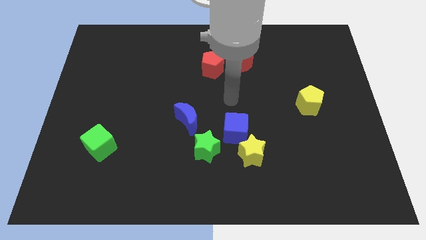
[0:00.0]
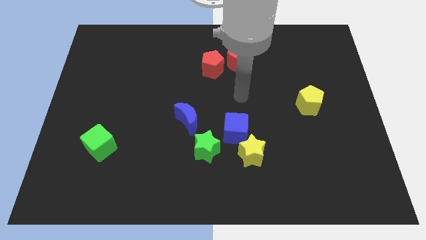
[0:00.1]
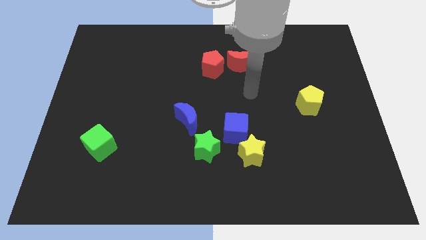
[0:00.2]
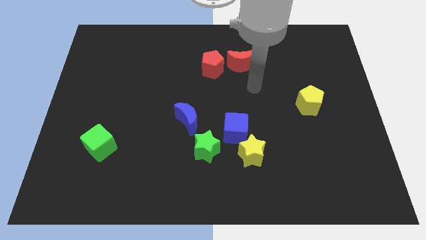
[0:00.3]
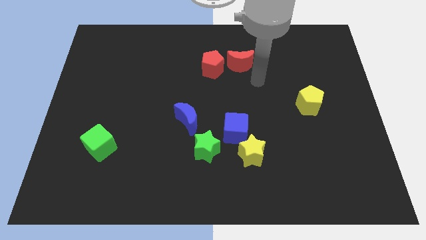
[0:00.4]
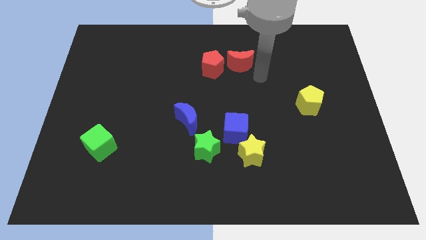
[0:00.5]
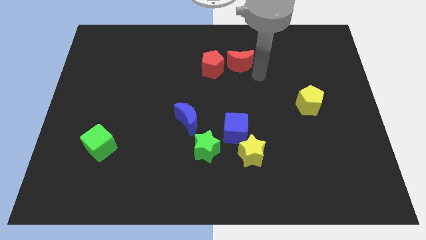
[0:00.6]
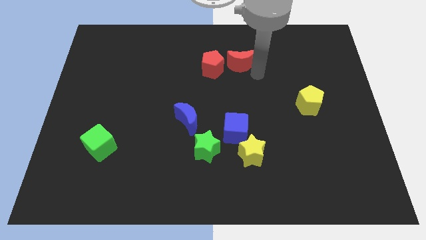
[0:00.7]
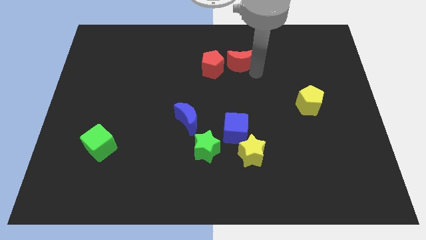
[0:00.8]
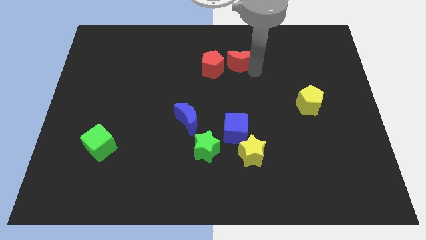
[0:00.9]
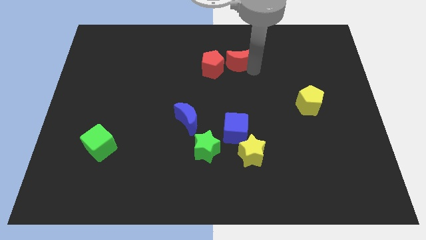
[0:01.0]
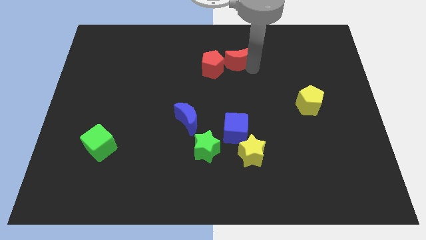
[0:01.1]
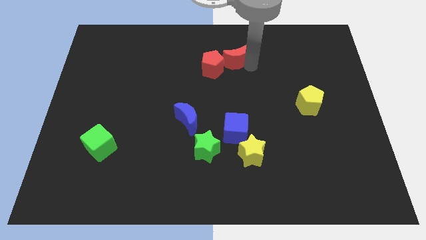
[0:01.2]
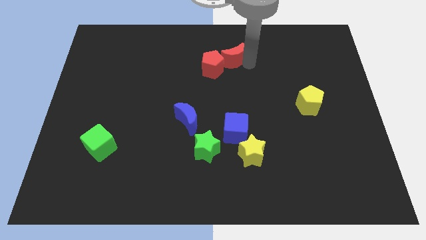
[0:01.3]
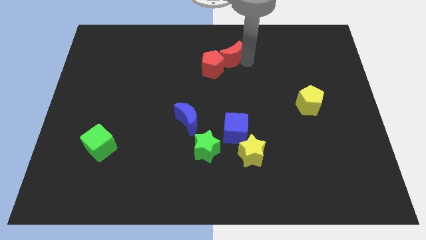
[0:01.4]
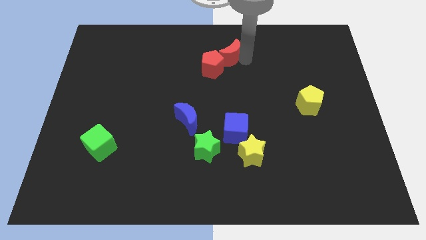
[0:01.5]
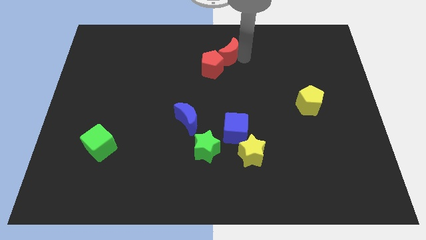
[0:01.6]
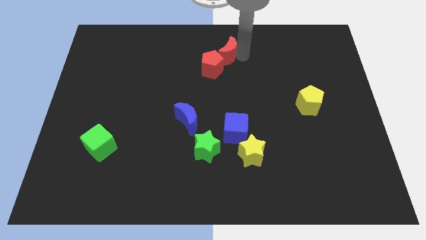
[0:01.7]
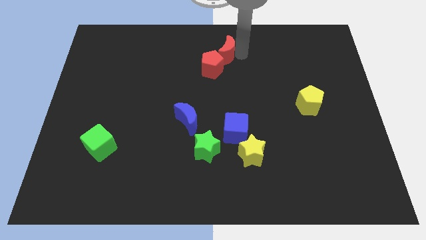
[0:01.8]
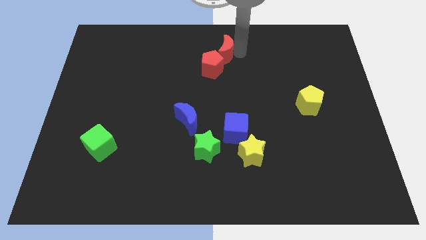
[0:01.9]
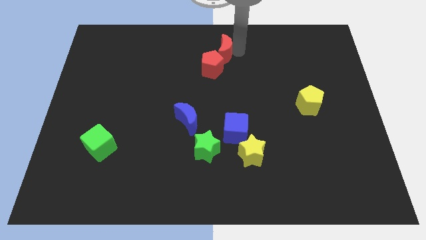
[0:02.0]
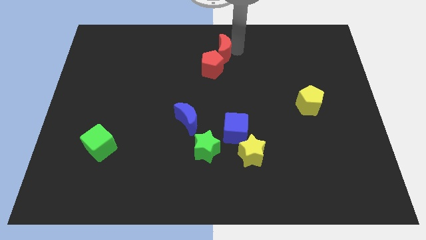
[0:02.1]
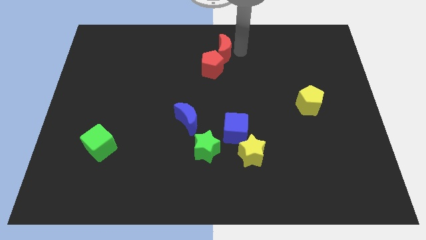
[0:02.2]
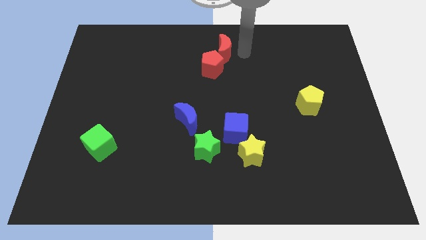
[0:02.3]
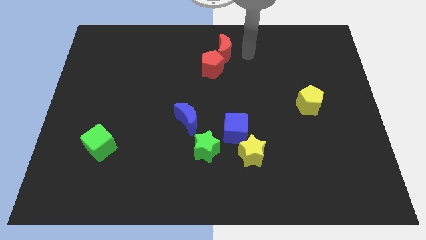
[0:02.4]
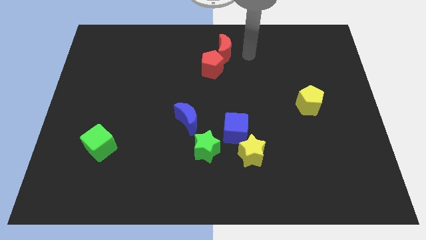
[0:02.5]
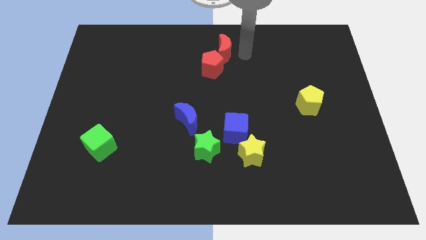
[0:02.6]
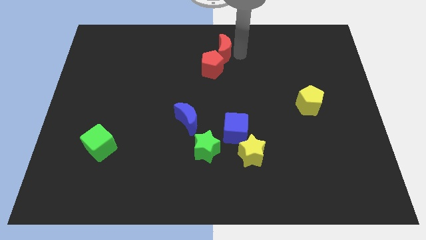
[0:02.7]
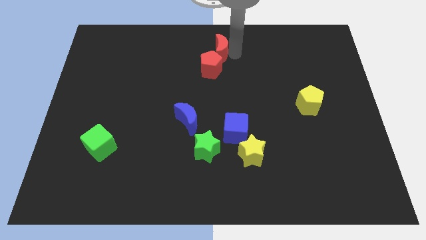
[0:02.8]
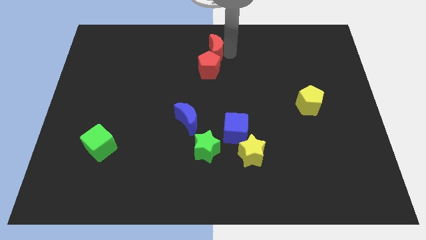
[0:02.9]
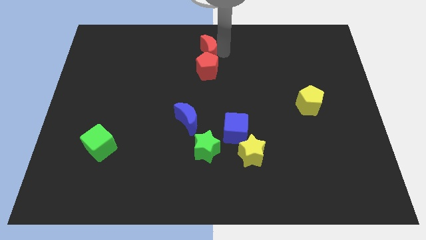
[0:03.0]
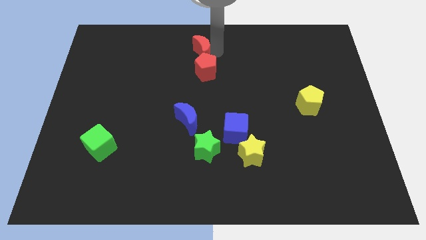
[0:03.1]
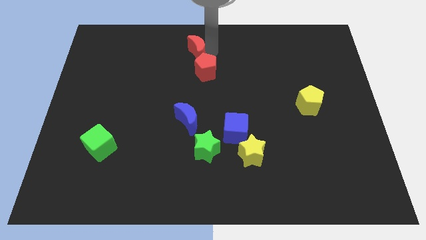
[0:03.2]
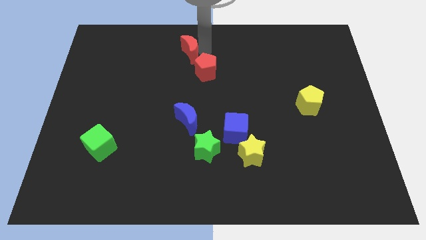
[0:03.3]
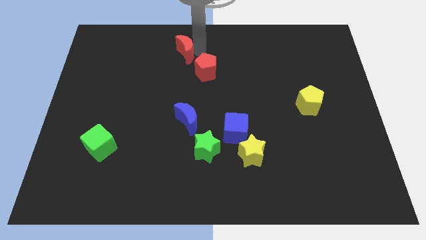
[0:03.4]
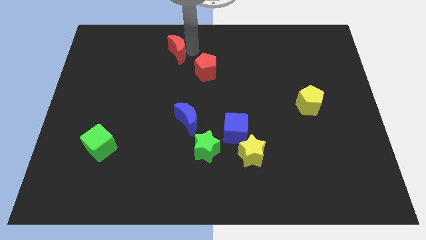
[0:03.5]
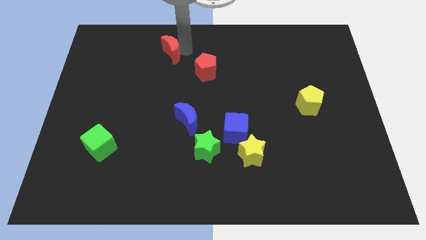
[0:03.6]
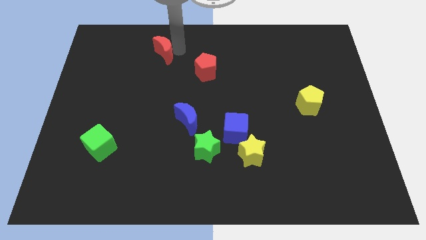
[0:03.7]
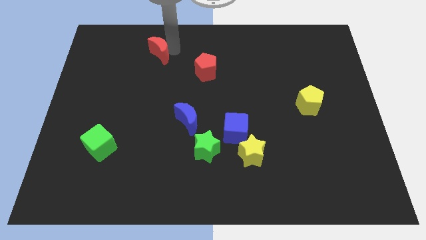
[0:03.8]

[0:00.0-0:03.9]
move the red moon to the left

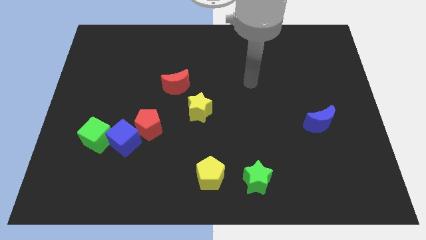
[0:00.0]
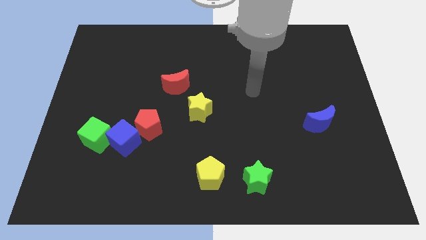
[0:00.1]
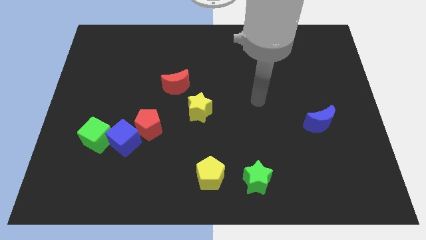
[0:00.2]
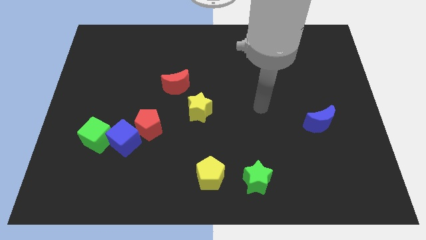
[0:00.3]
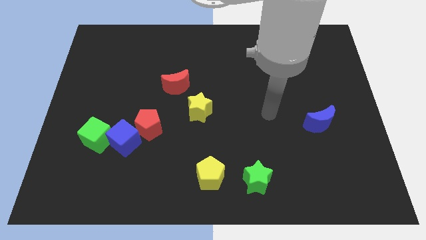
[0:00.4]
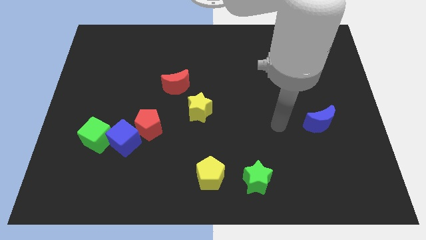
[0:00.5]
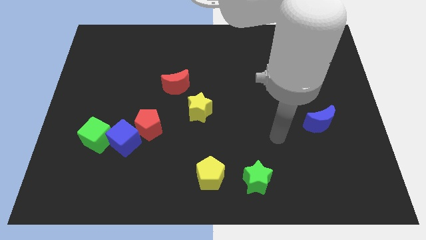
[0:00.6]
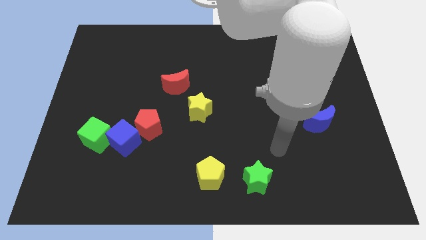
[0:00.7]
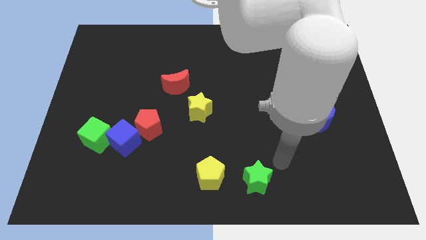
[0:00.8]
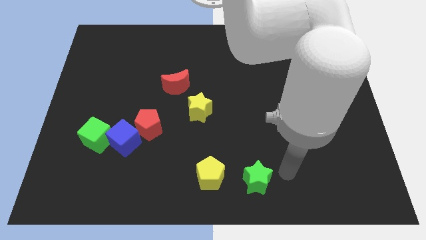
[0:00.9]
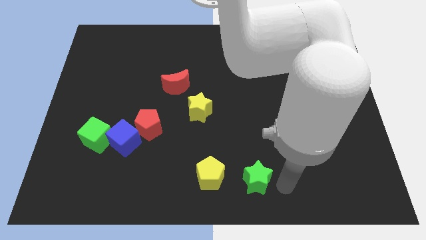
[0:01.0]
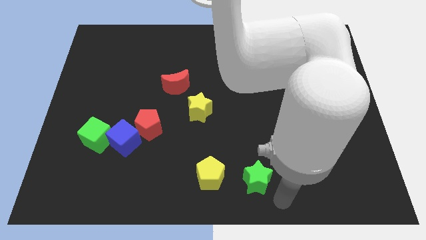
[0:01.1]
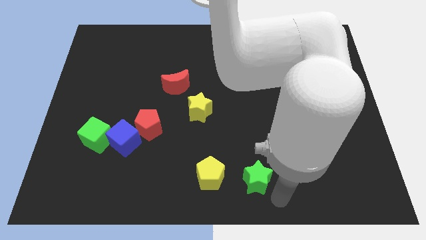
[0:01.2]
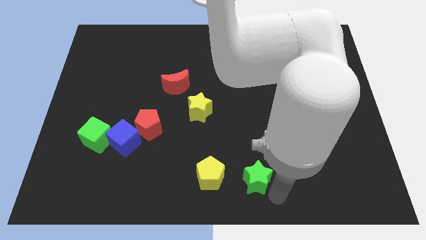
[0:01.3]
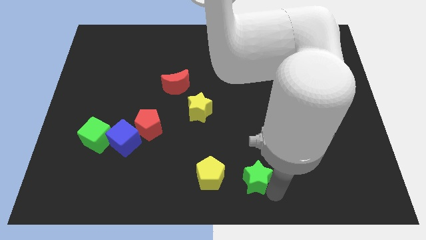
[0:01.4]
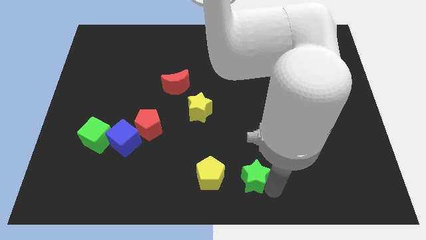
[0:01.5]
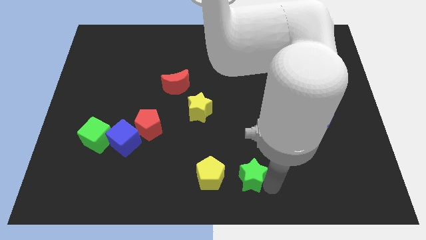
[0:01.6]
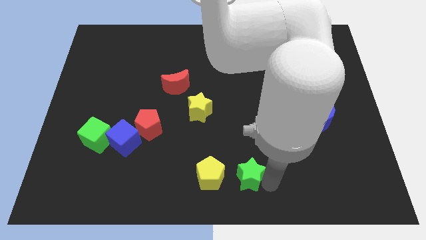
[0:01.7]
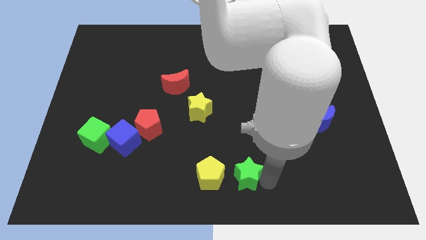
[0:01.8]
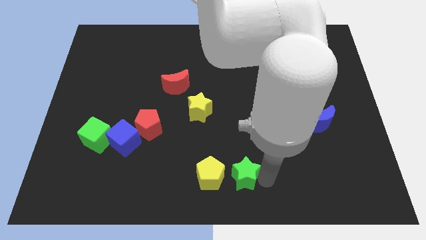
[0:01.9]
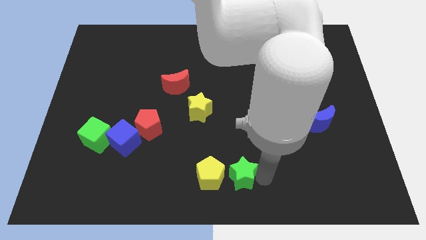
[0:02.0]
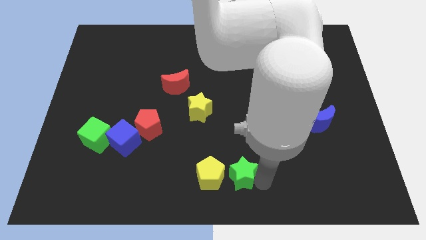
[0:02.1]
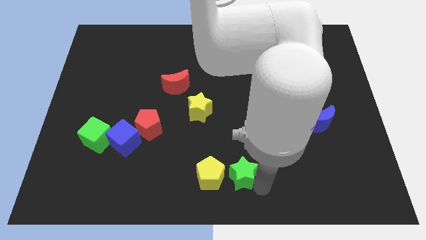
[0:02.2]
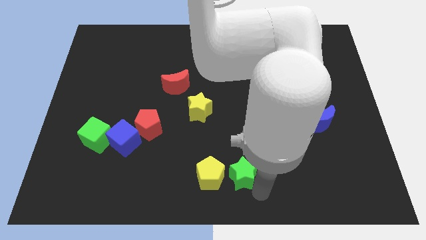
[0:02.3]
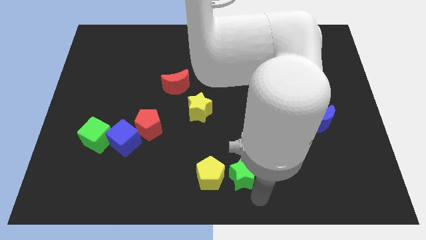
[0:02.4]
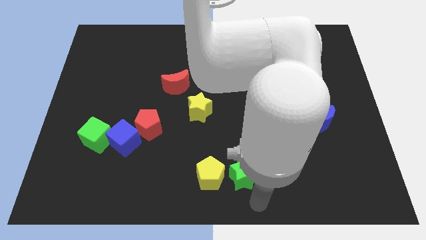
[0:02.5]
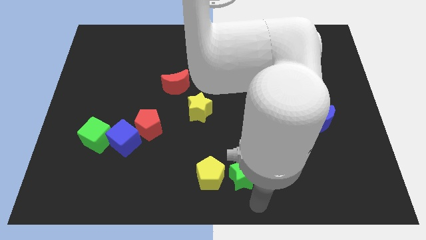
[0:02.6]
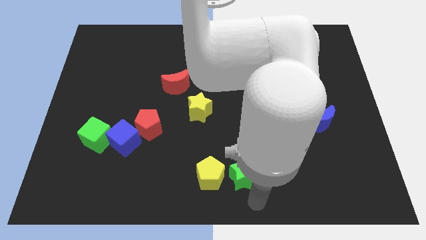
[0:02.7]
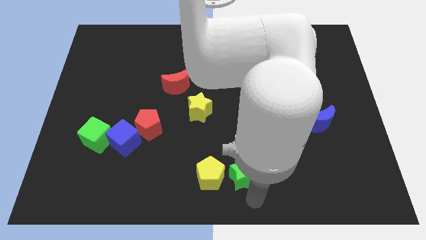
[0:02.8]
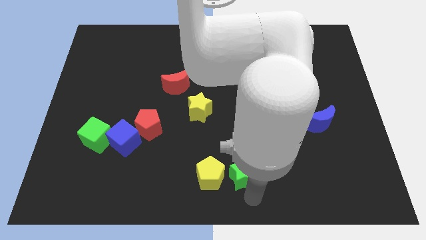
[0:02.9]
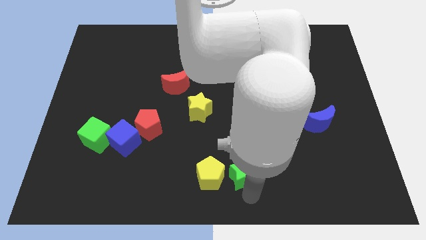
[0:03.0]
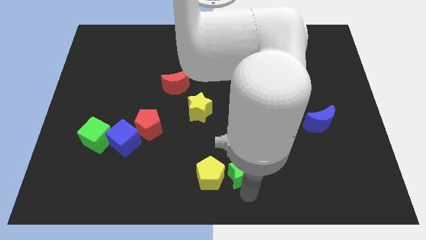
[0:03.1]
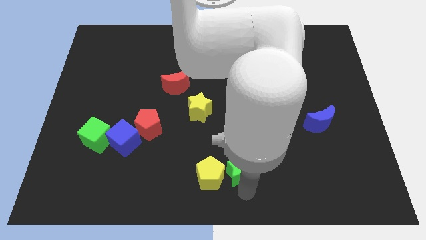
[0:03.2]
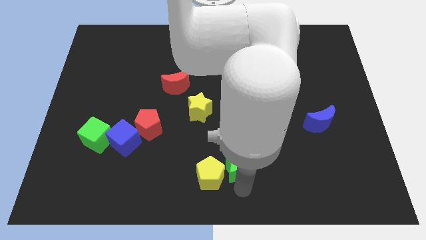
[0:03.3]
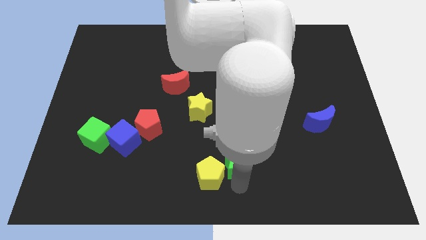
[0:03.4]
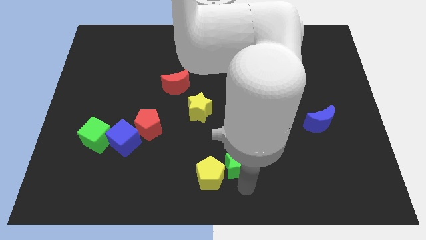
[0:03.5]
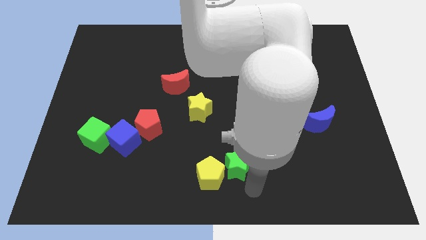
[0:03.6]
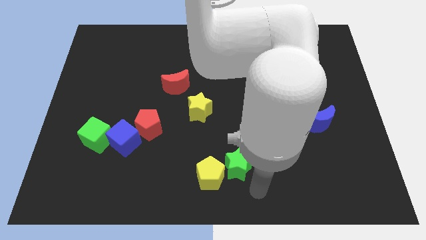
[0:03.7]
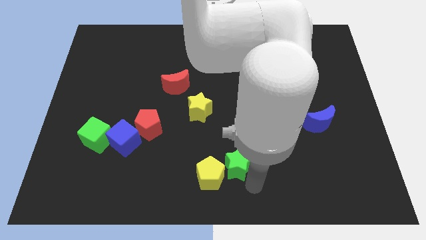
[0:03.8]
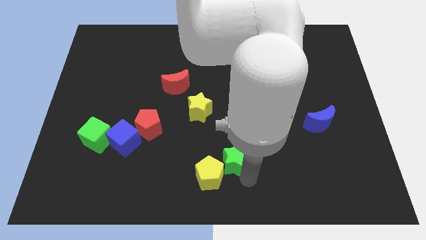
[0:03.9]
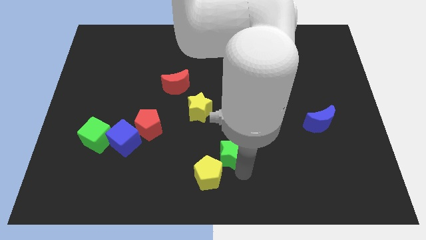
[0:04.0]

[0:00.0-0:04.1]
push the green star upwards and to the left a bit

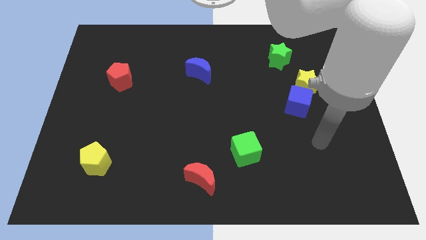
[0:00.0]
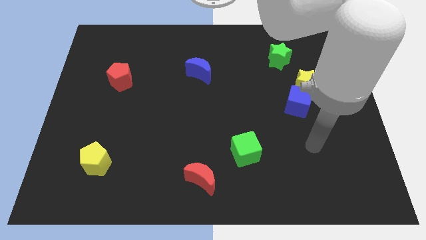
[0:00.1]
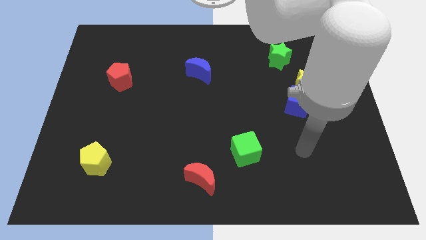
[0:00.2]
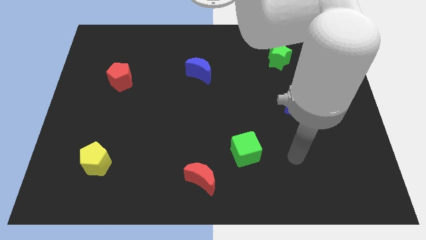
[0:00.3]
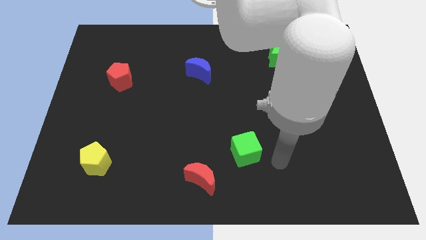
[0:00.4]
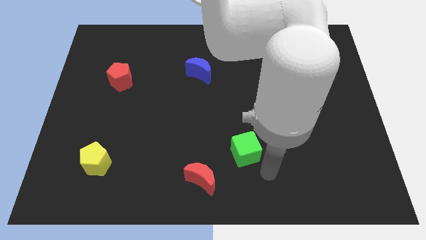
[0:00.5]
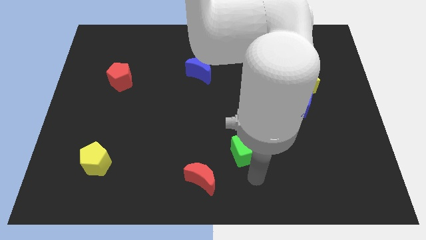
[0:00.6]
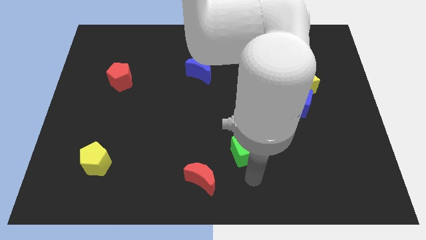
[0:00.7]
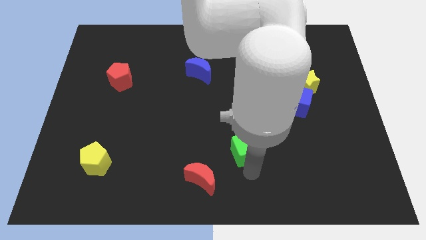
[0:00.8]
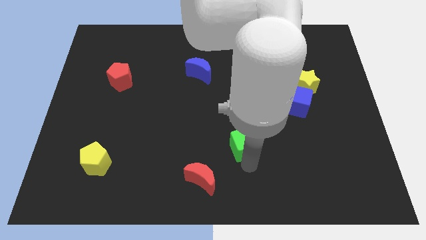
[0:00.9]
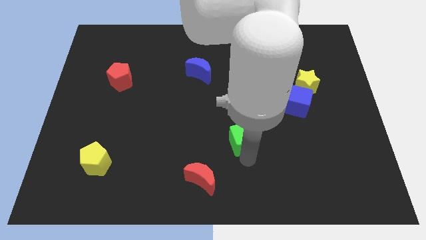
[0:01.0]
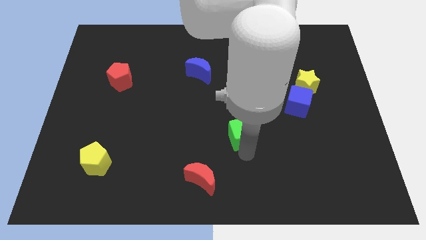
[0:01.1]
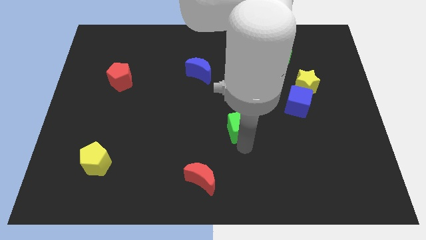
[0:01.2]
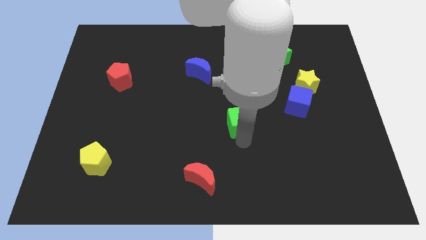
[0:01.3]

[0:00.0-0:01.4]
slide the green cube upwards somewhat
